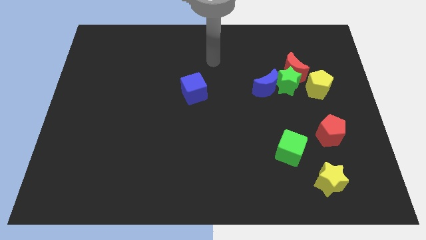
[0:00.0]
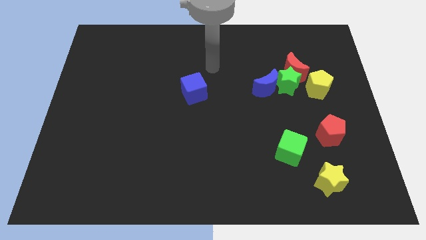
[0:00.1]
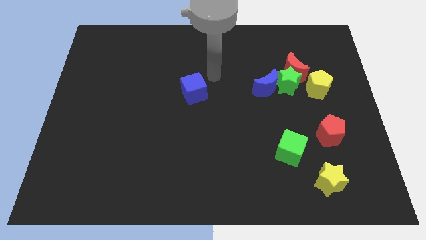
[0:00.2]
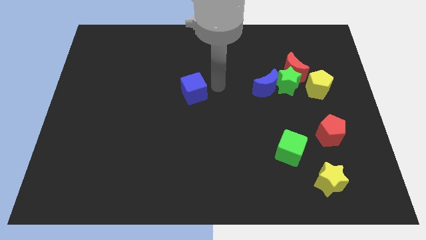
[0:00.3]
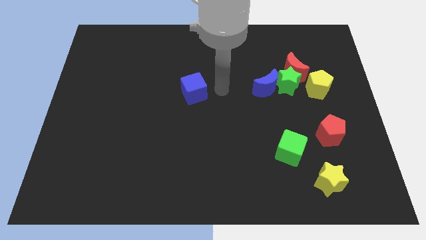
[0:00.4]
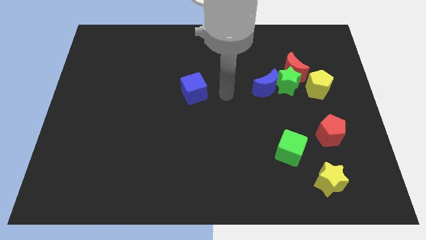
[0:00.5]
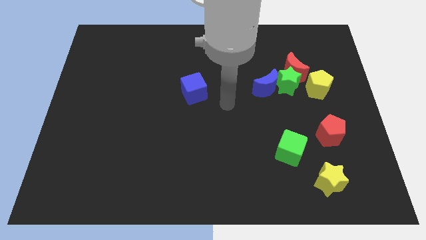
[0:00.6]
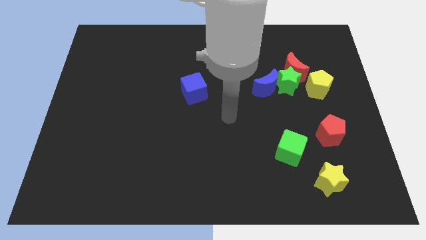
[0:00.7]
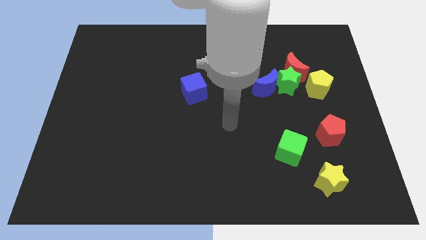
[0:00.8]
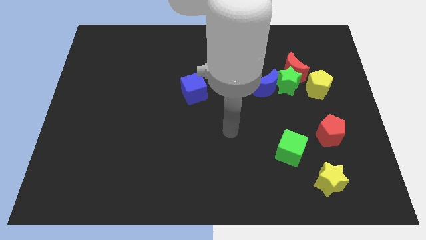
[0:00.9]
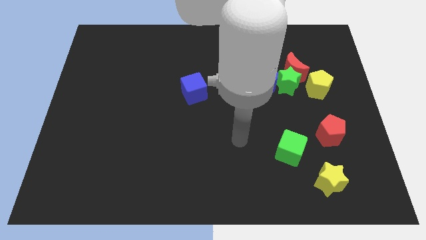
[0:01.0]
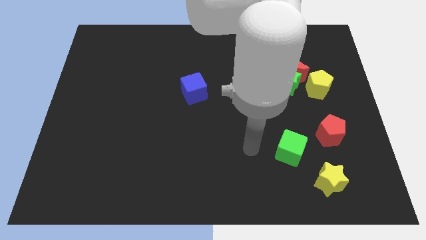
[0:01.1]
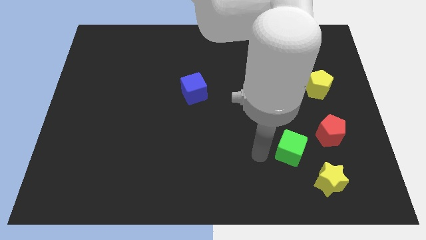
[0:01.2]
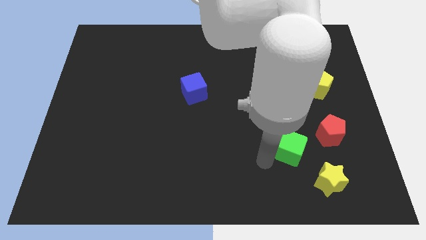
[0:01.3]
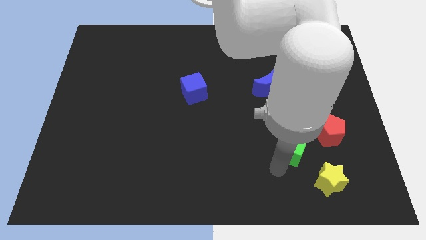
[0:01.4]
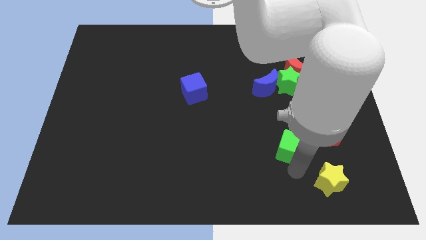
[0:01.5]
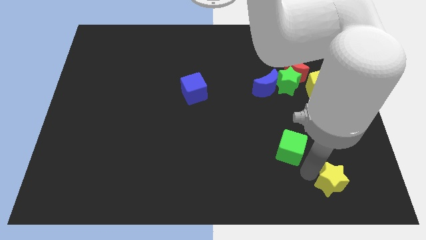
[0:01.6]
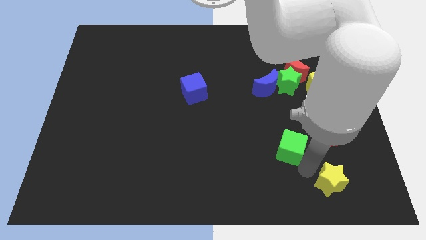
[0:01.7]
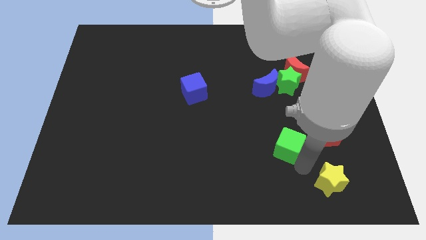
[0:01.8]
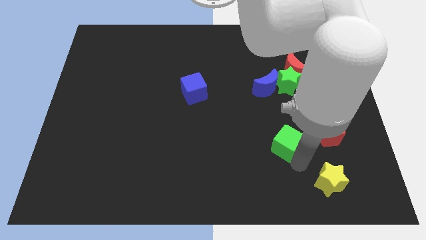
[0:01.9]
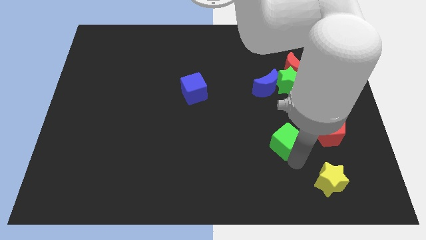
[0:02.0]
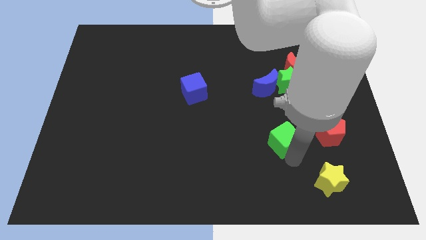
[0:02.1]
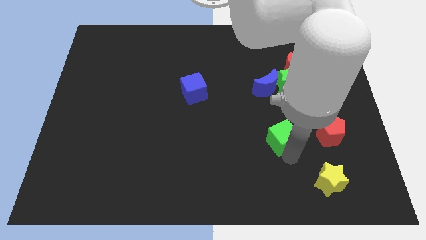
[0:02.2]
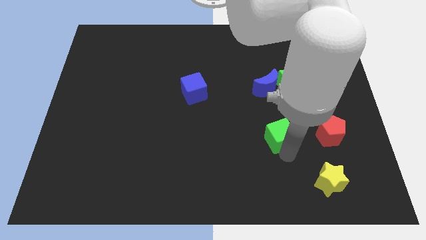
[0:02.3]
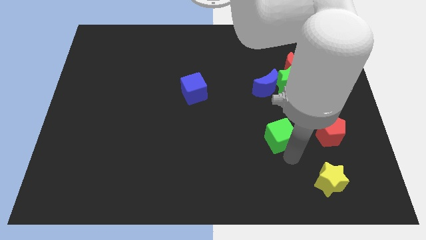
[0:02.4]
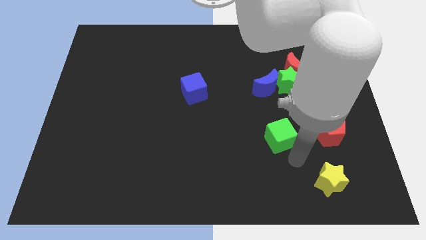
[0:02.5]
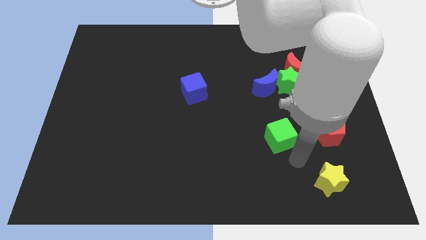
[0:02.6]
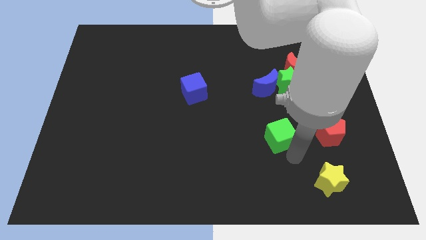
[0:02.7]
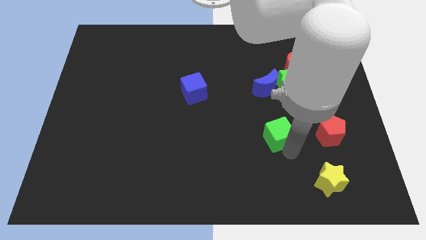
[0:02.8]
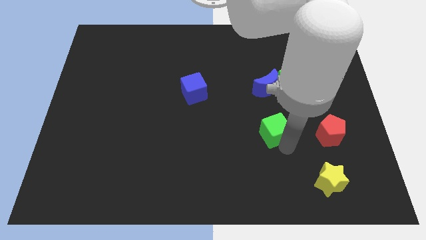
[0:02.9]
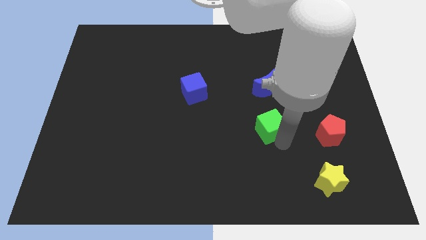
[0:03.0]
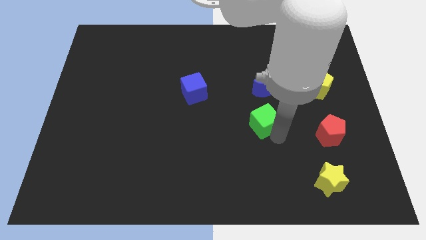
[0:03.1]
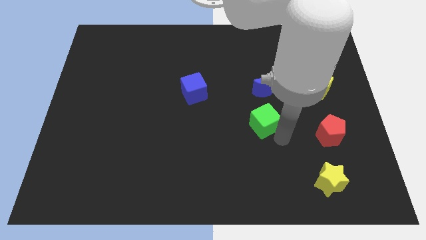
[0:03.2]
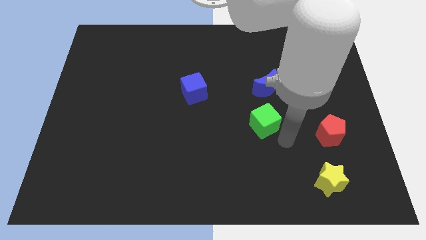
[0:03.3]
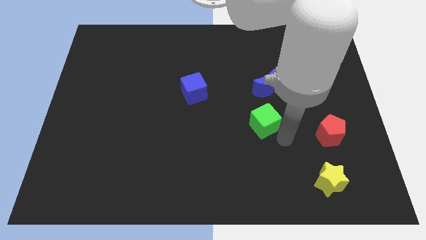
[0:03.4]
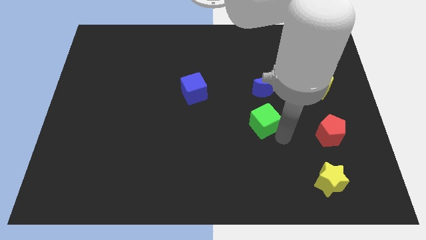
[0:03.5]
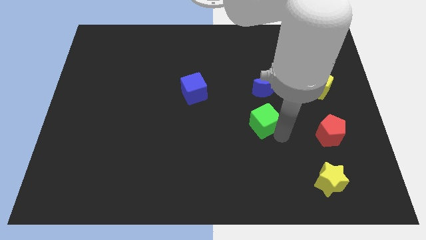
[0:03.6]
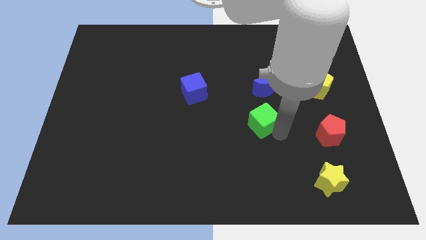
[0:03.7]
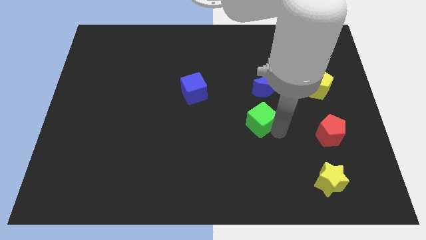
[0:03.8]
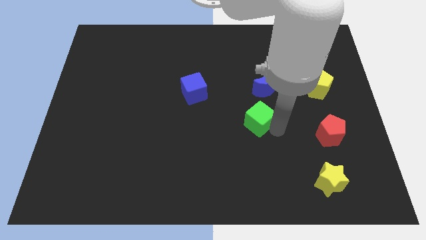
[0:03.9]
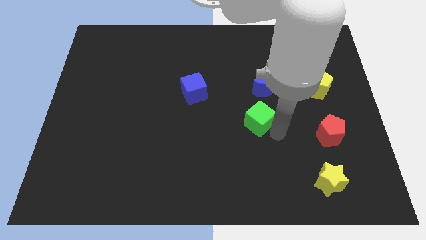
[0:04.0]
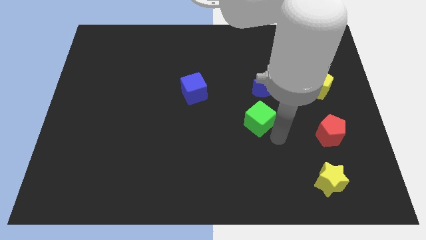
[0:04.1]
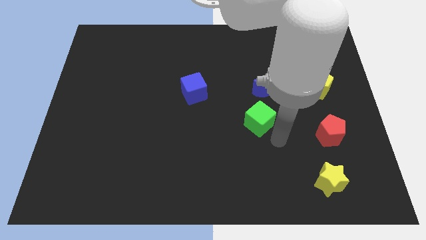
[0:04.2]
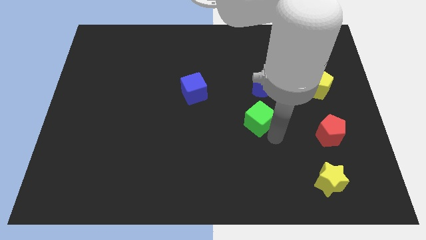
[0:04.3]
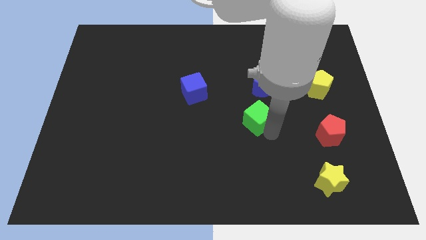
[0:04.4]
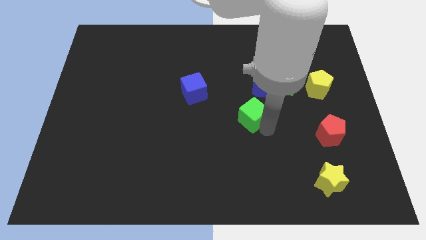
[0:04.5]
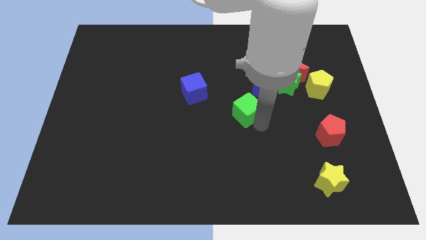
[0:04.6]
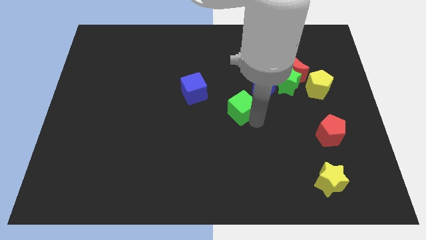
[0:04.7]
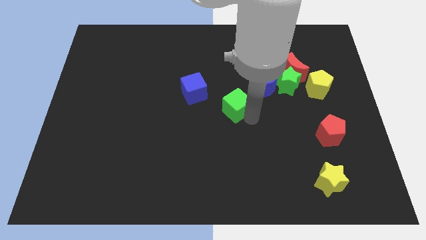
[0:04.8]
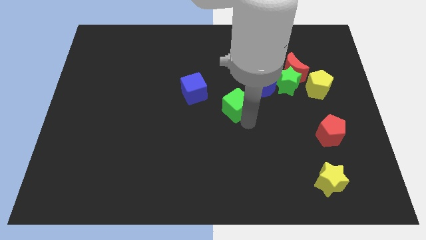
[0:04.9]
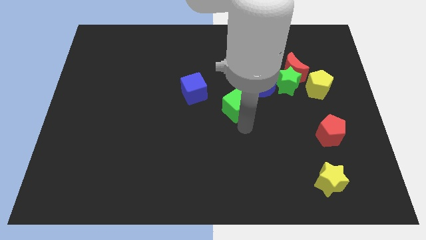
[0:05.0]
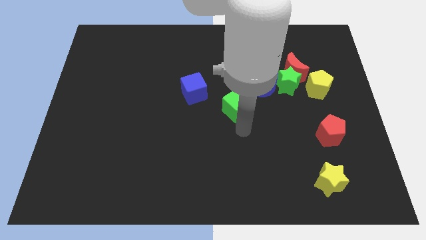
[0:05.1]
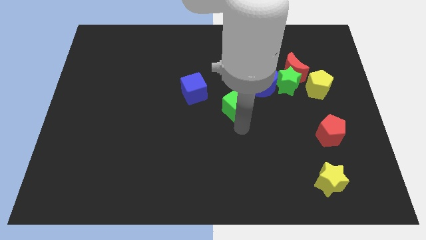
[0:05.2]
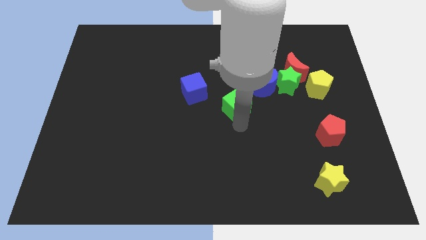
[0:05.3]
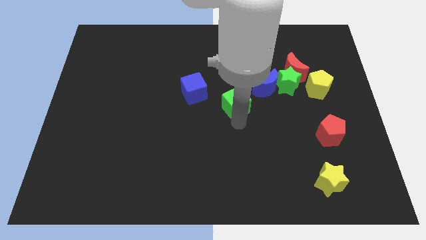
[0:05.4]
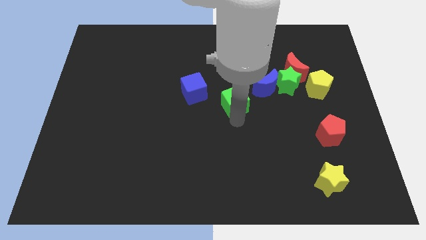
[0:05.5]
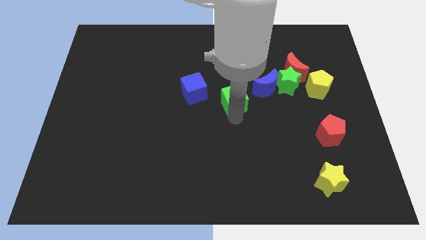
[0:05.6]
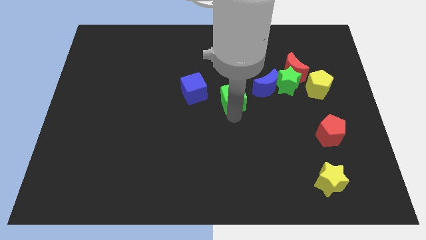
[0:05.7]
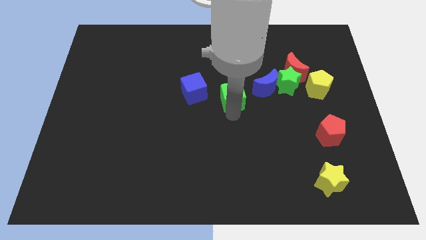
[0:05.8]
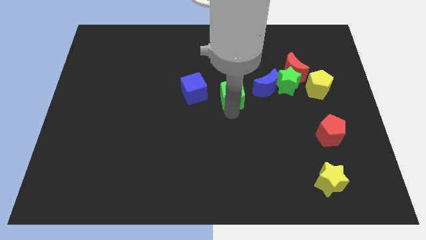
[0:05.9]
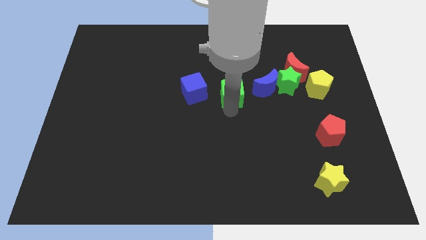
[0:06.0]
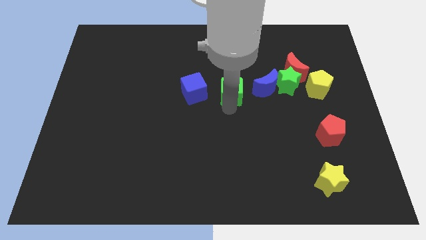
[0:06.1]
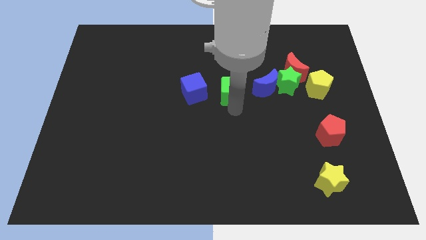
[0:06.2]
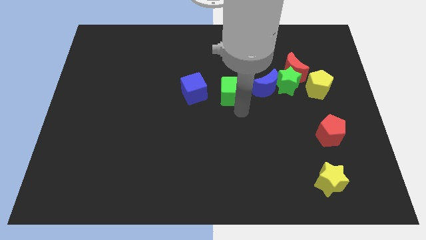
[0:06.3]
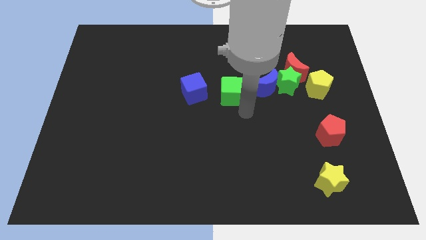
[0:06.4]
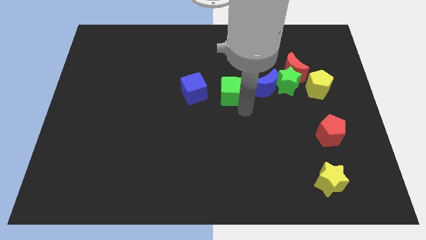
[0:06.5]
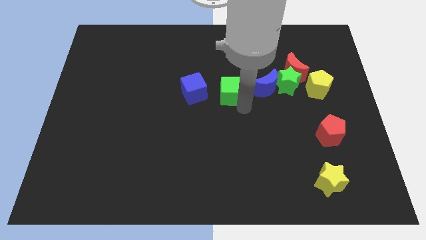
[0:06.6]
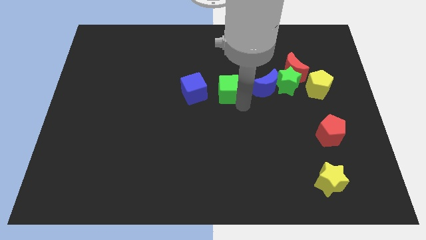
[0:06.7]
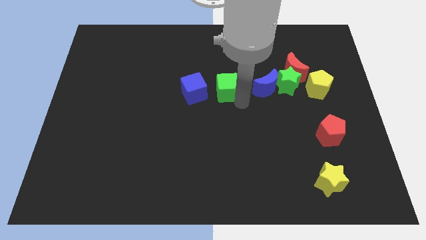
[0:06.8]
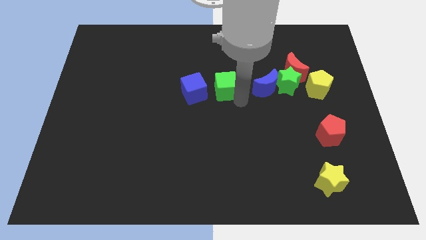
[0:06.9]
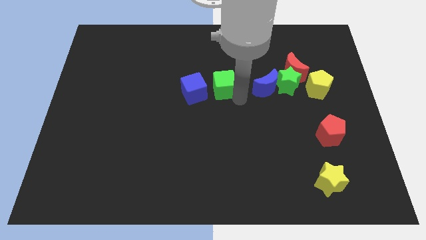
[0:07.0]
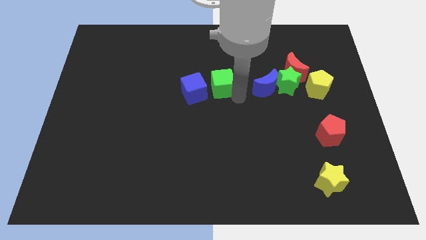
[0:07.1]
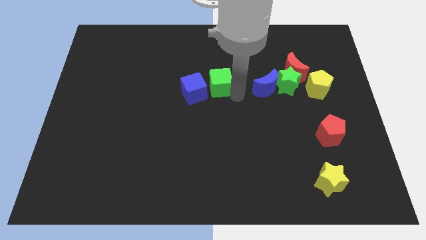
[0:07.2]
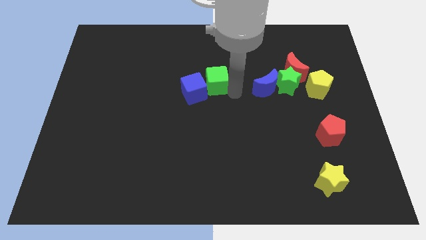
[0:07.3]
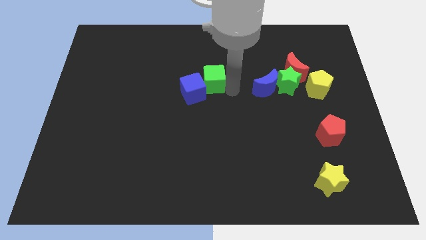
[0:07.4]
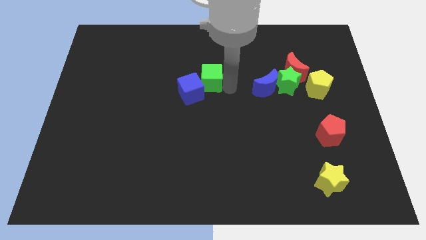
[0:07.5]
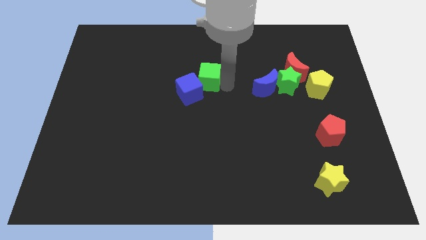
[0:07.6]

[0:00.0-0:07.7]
push the green cube to the top side of the blue cube
